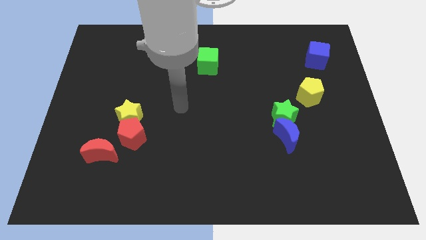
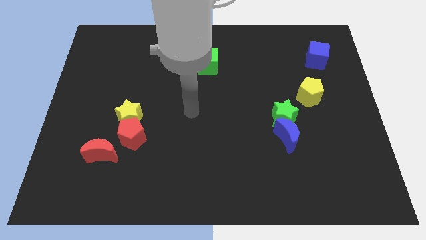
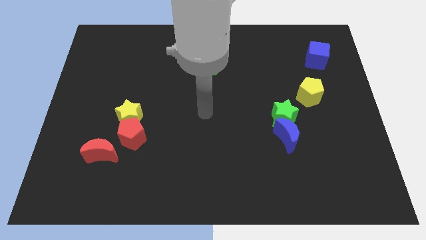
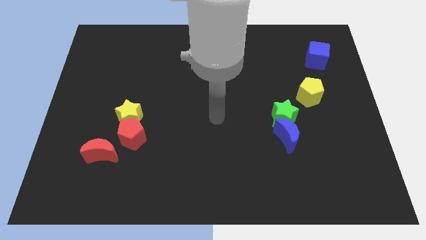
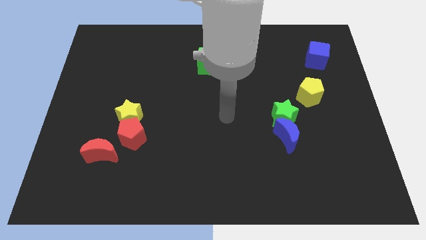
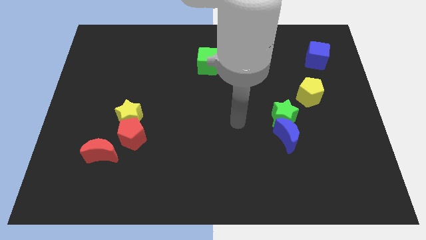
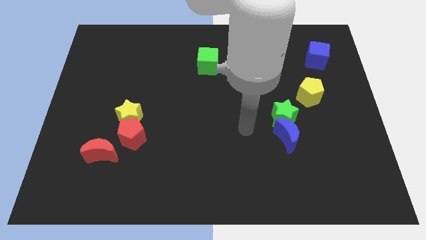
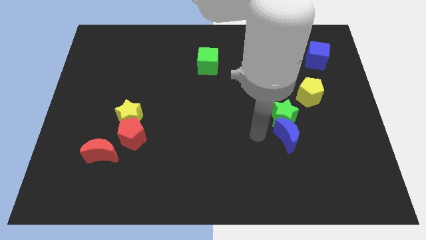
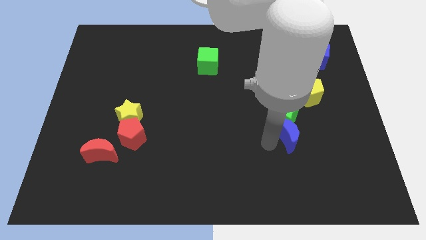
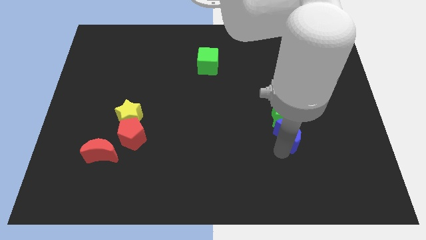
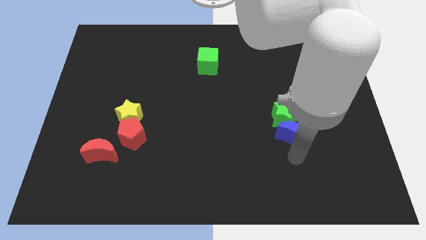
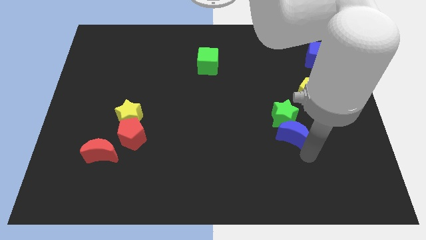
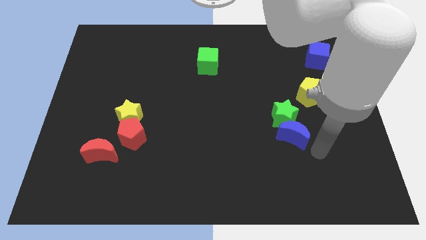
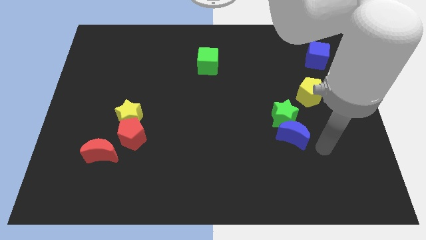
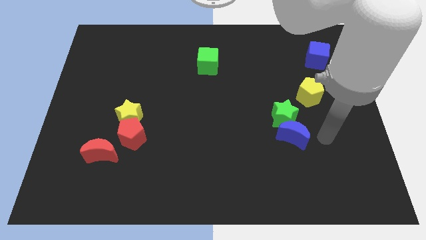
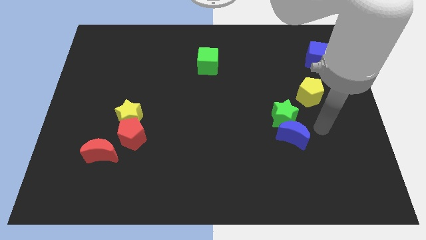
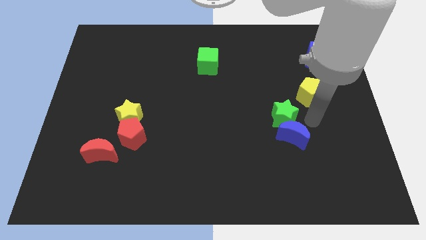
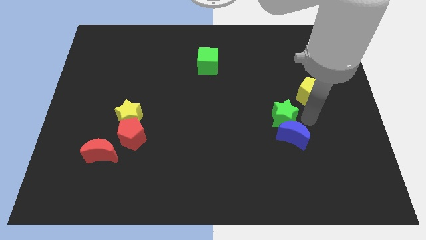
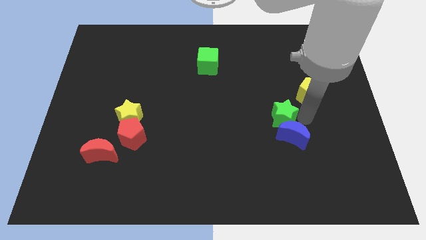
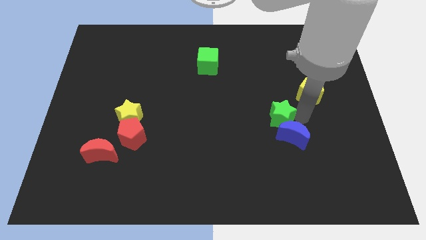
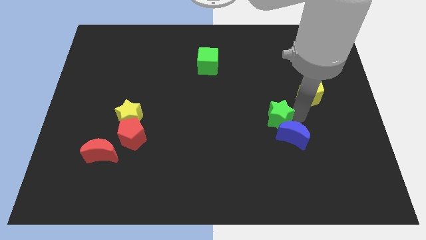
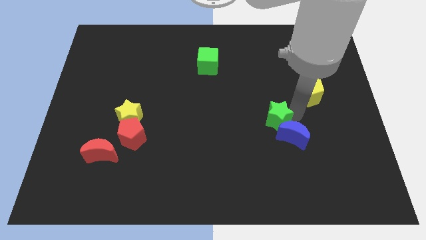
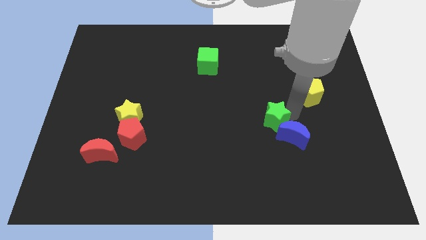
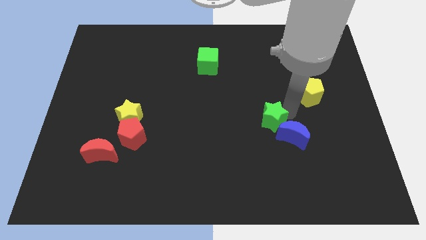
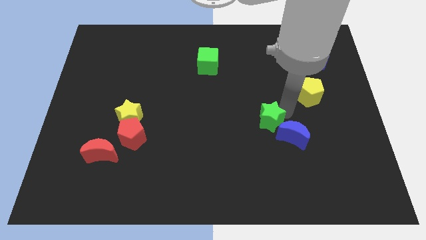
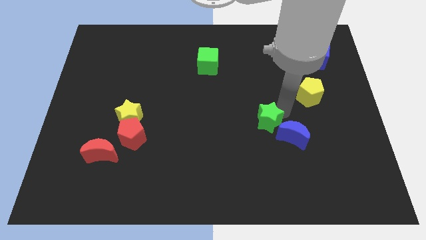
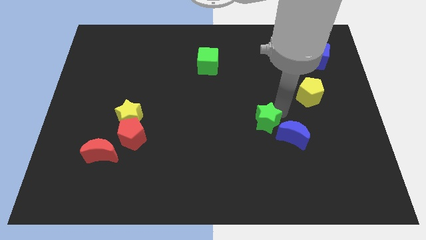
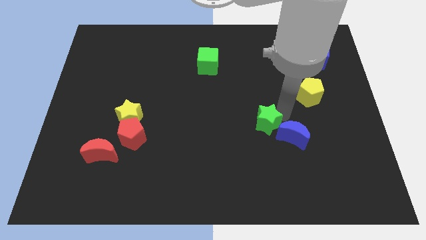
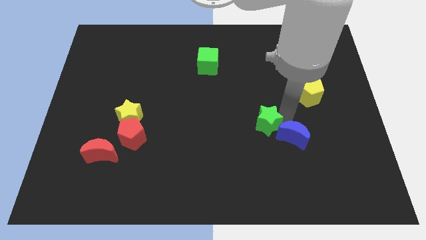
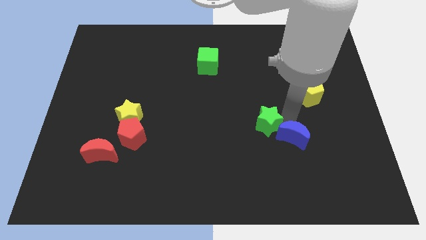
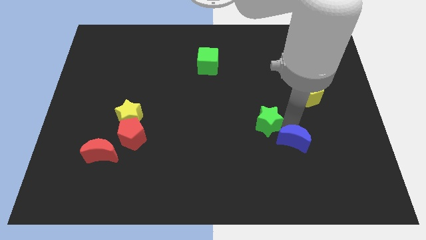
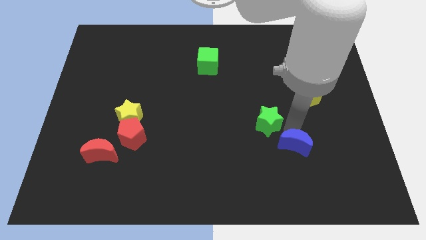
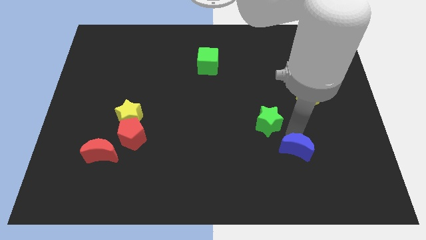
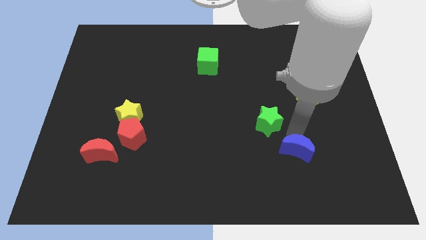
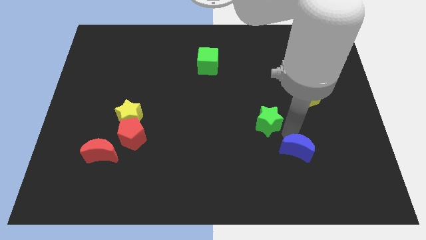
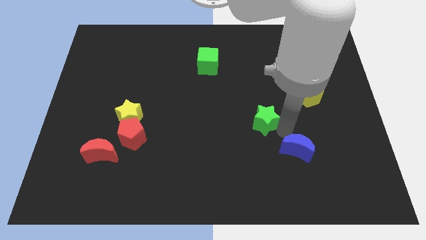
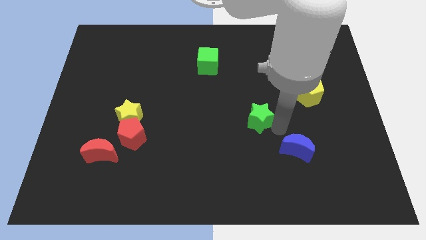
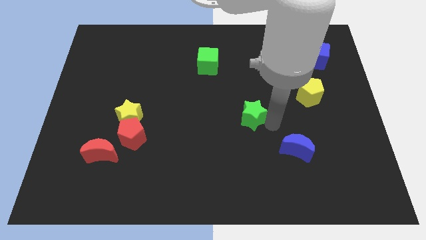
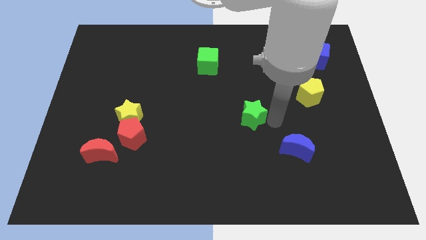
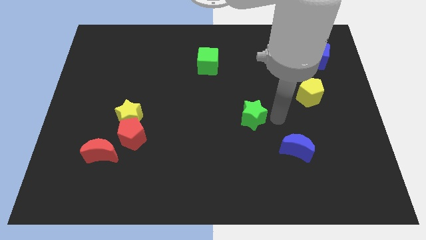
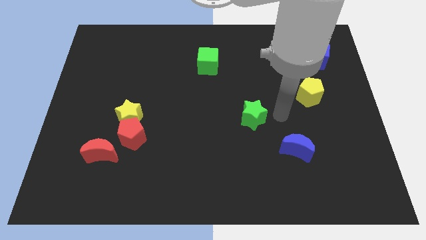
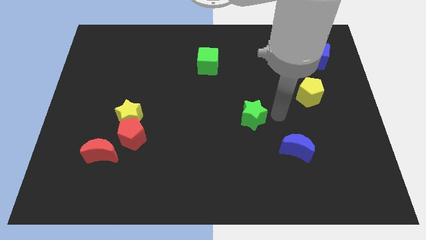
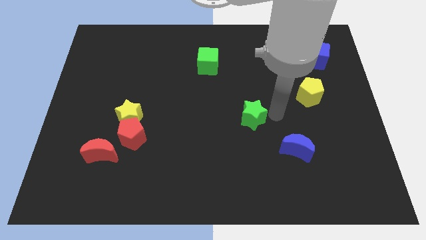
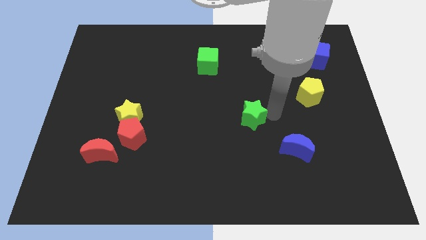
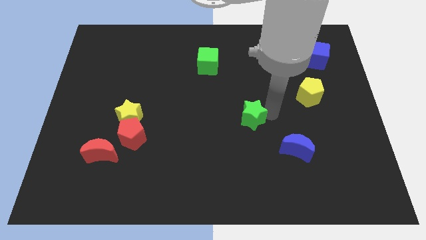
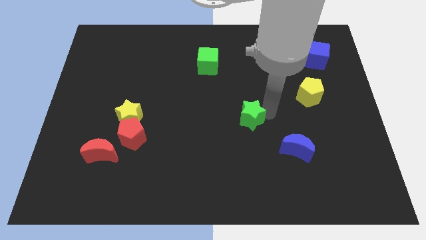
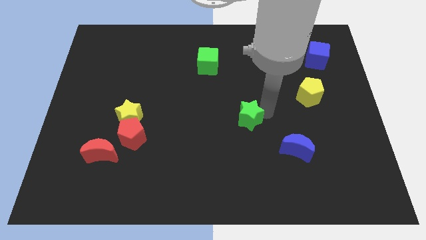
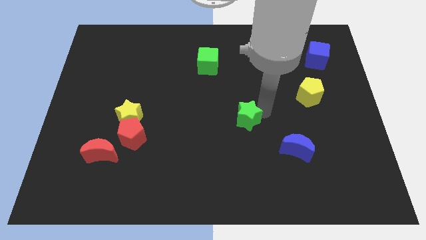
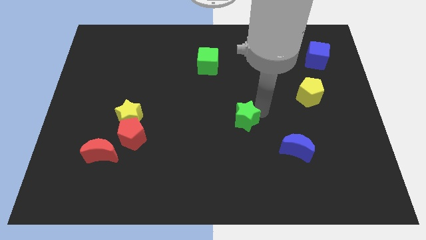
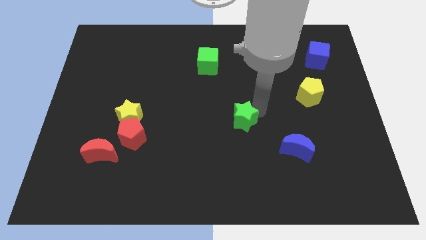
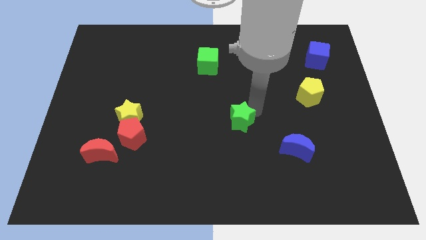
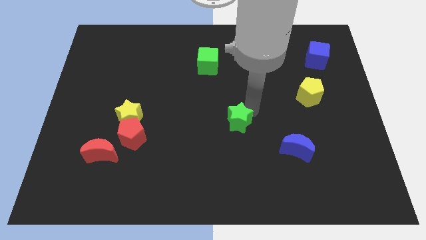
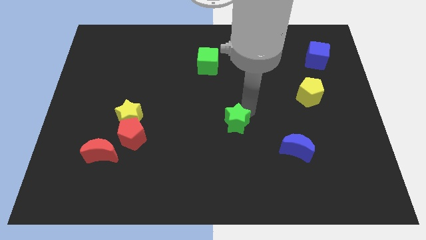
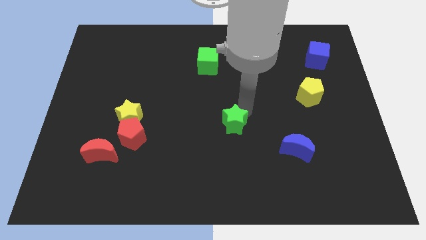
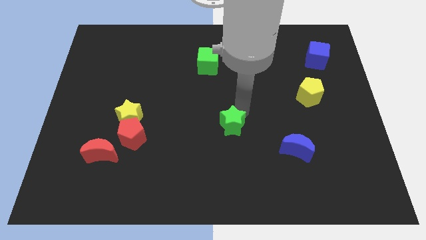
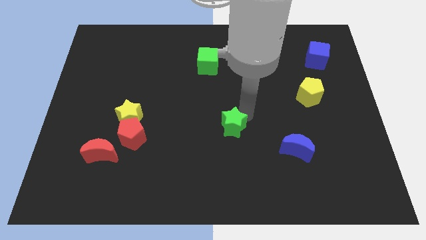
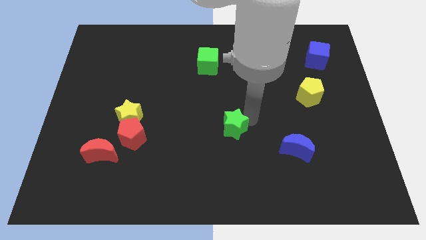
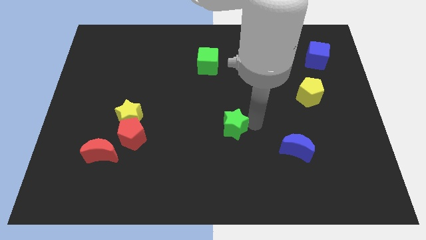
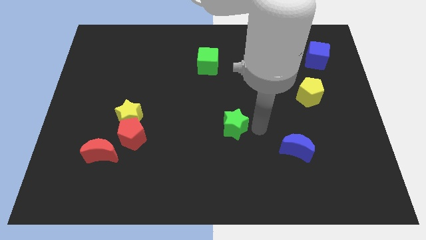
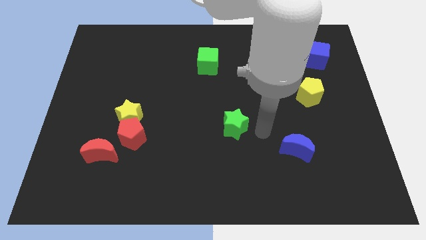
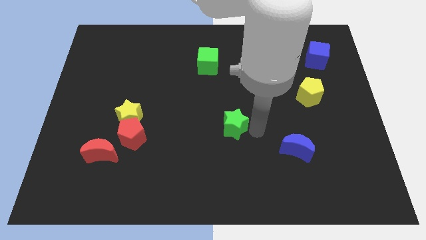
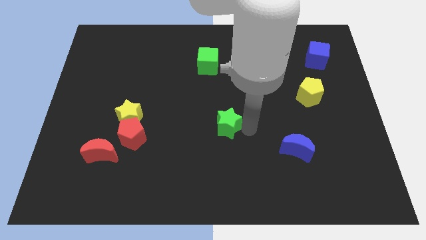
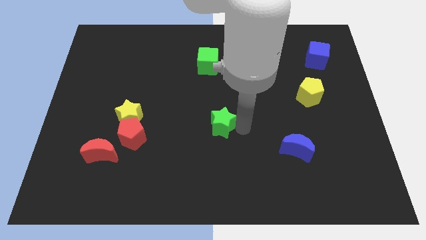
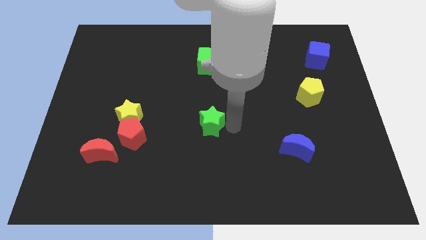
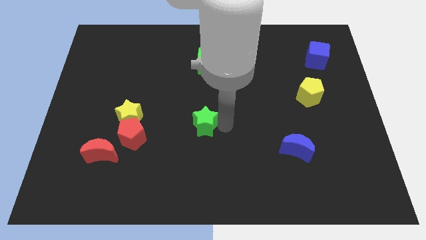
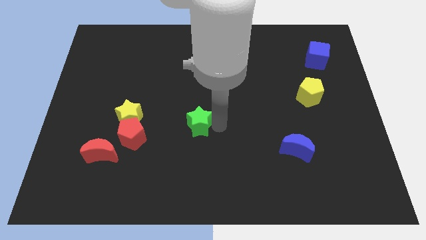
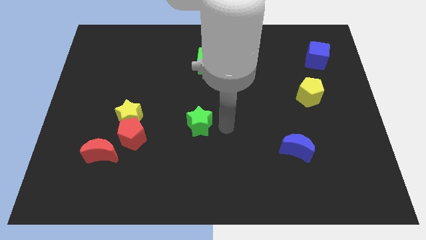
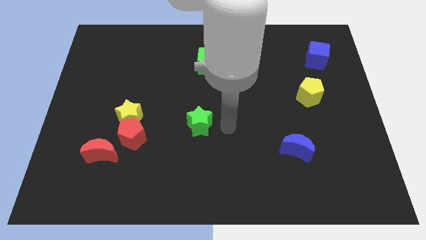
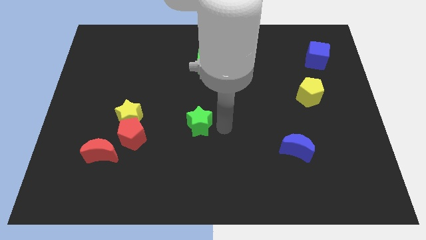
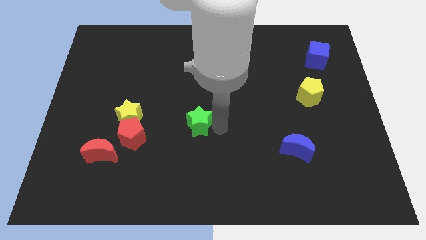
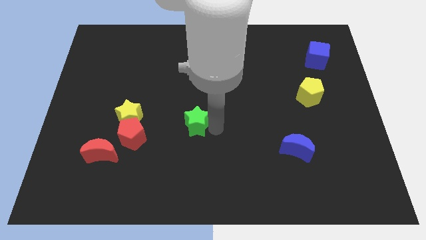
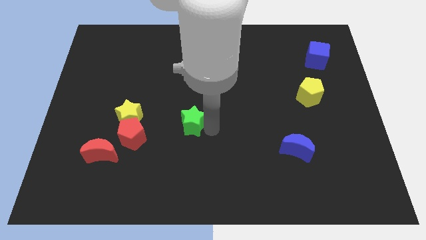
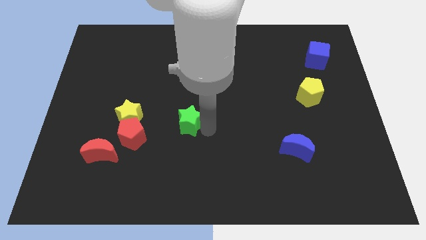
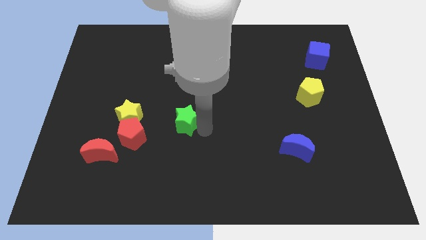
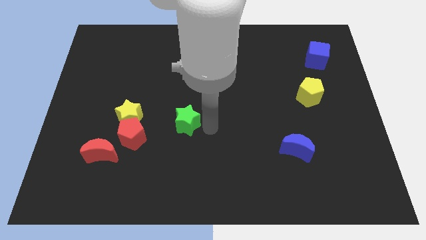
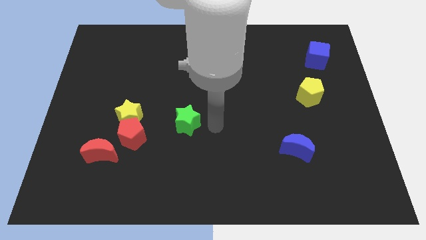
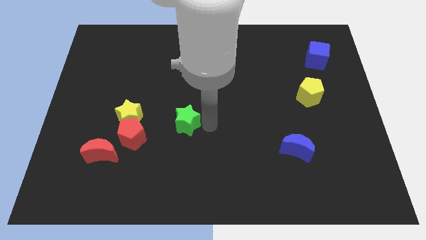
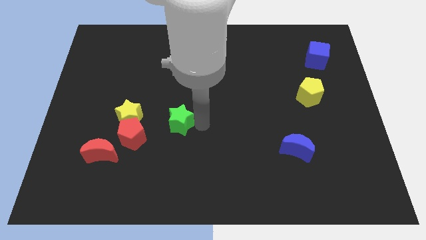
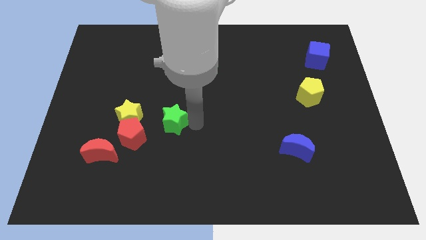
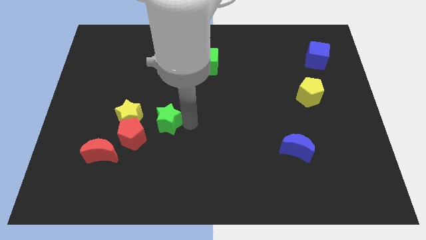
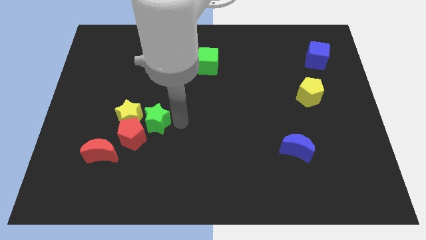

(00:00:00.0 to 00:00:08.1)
push the green star close to the yellow star
